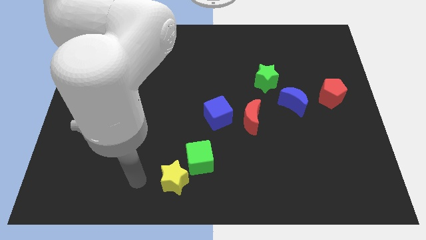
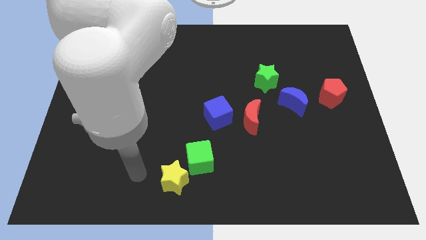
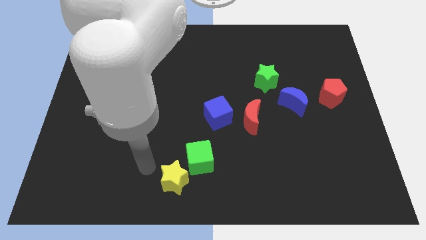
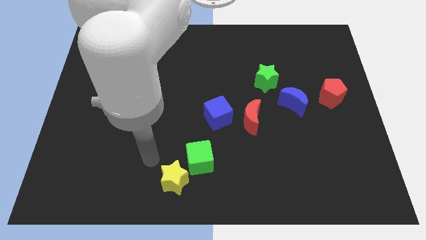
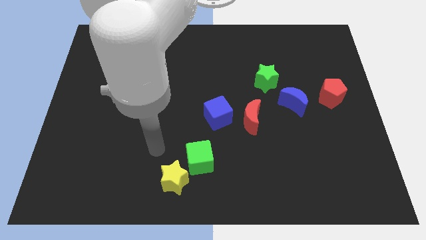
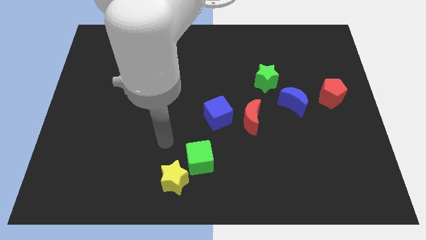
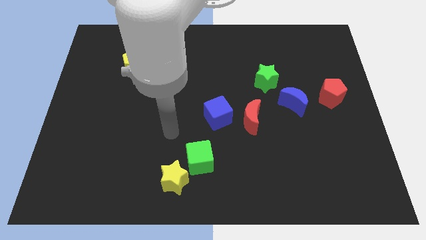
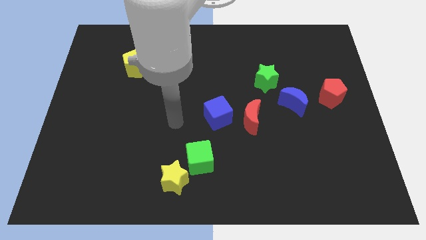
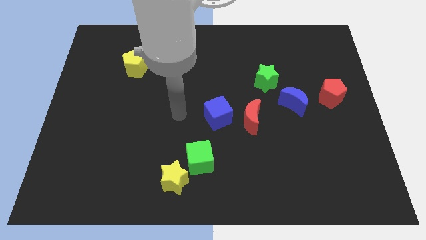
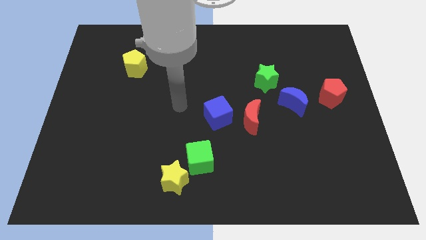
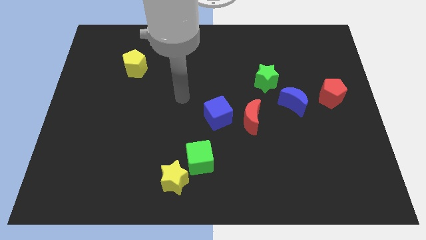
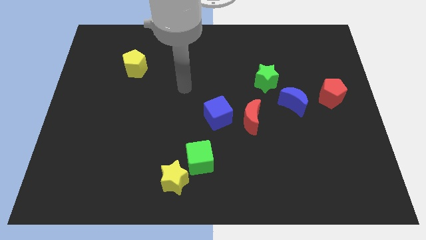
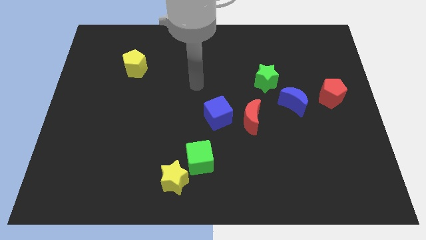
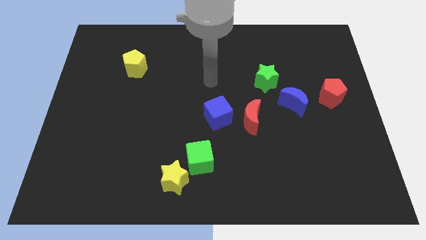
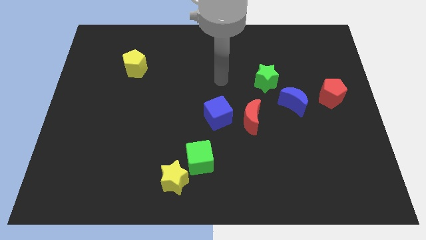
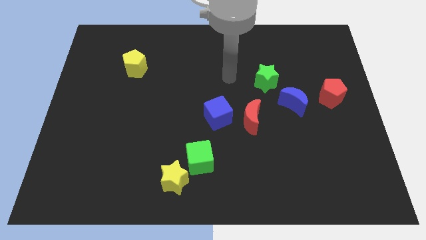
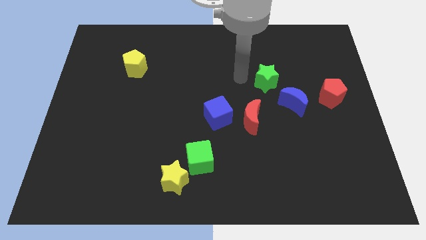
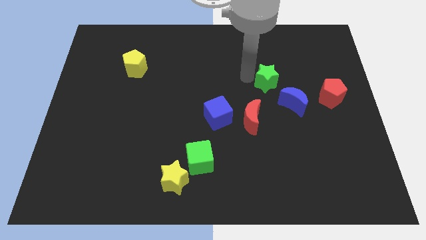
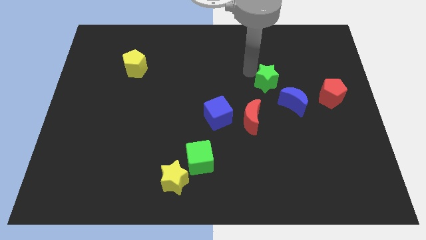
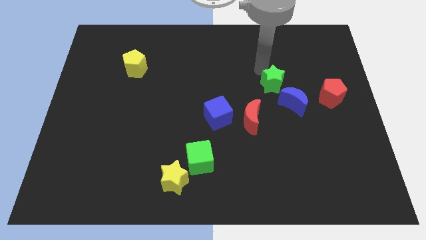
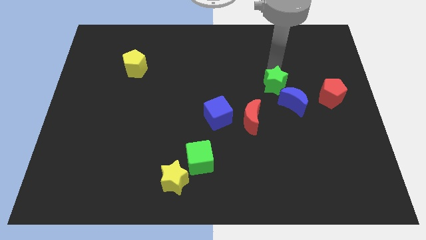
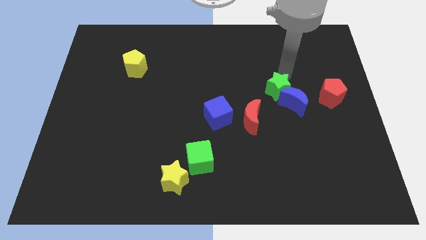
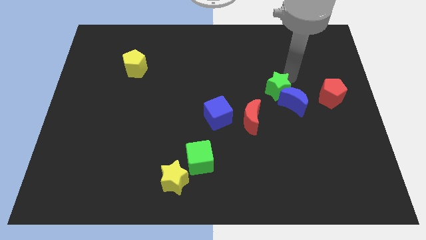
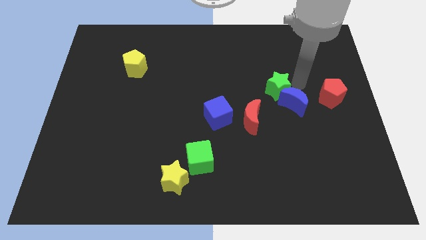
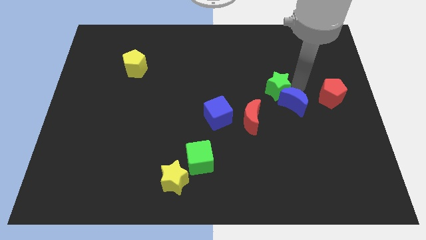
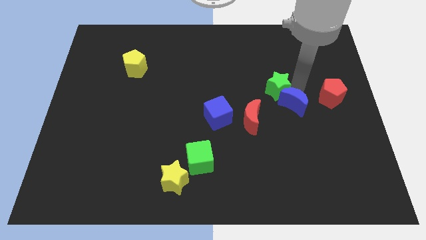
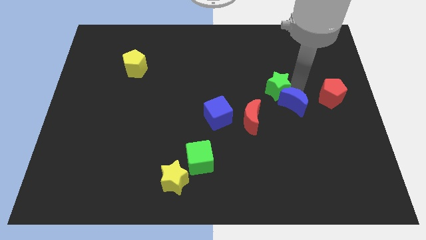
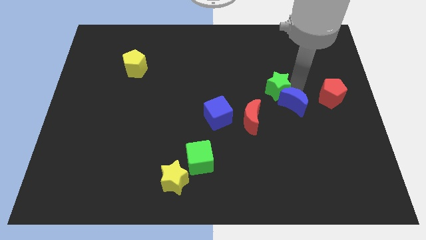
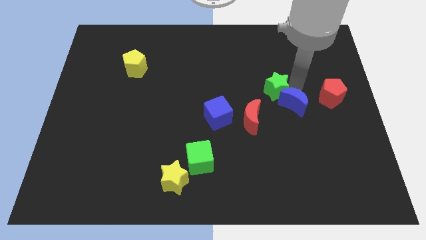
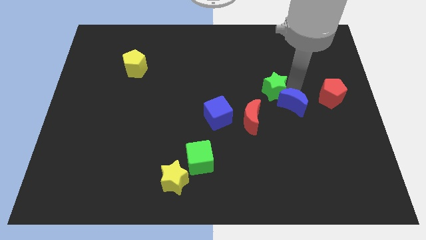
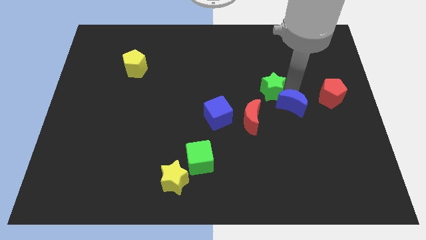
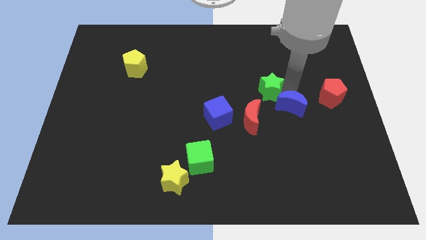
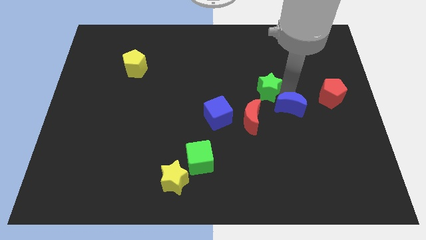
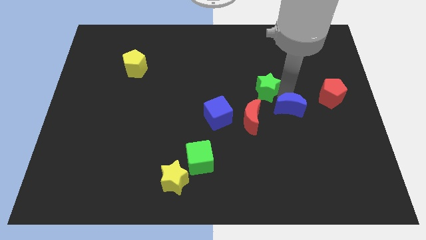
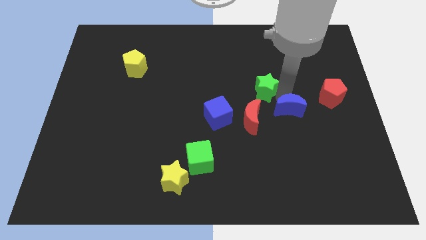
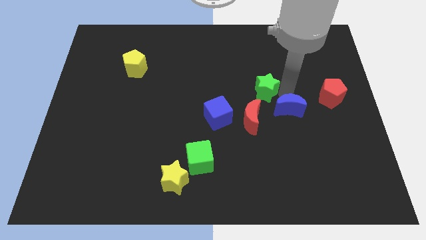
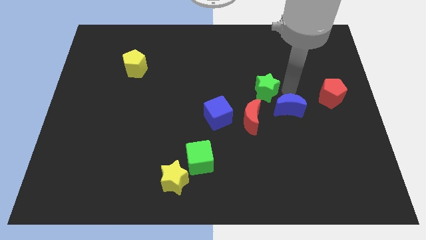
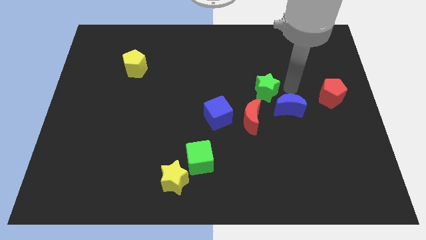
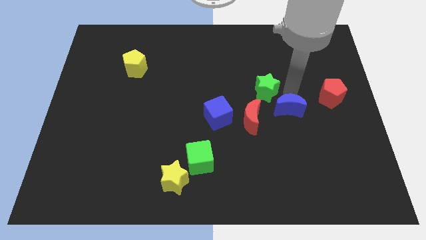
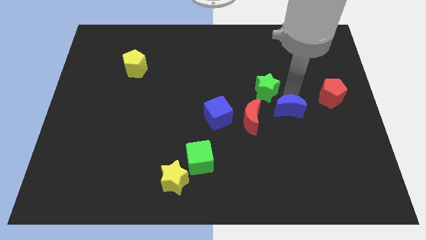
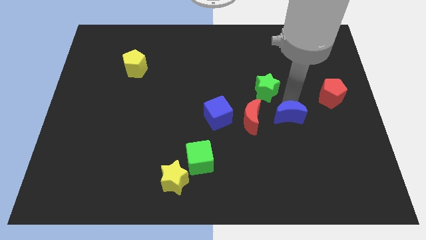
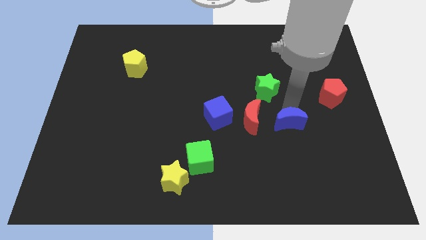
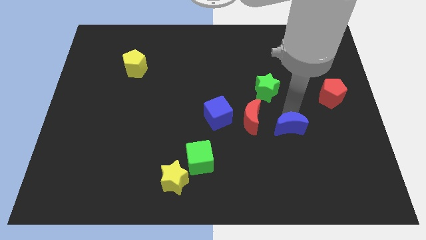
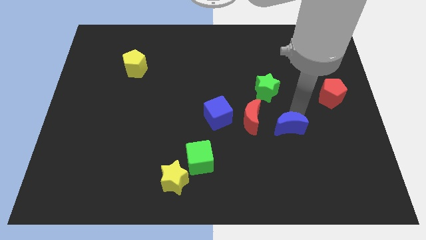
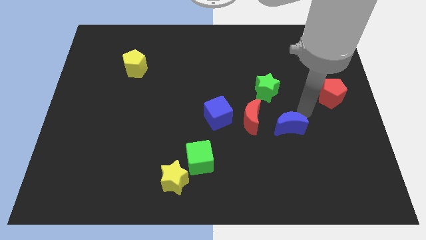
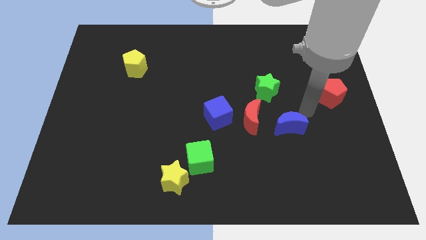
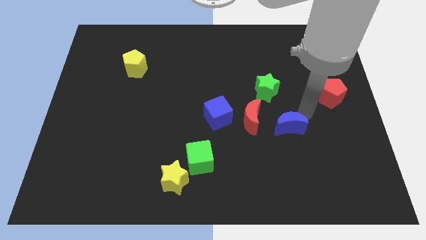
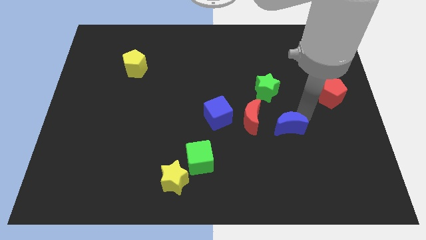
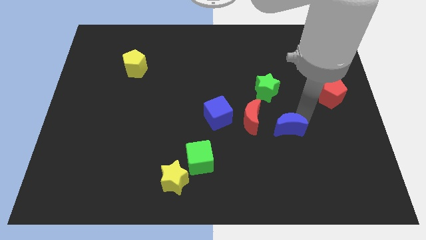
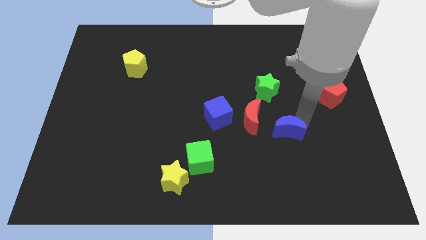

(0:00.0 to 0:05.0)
push the blue moon slightly down and to the left

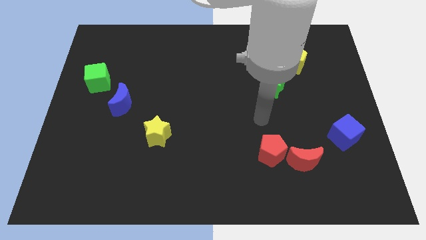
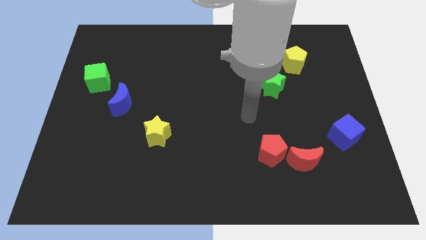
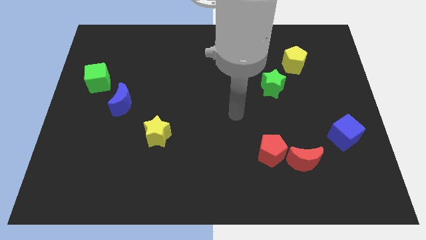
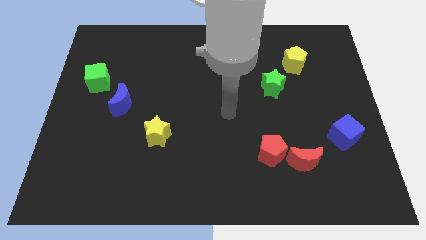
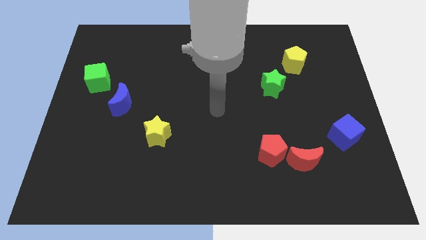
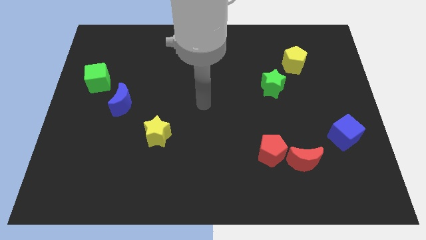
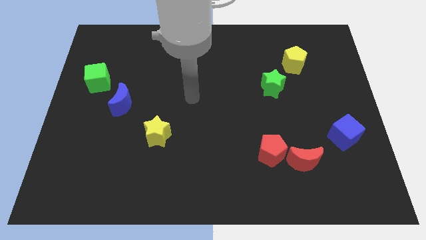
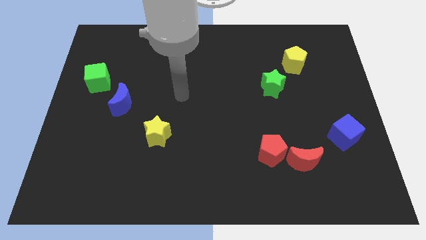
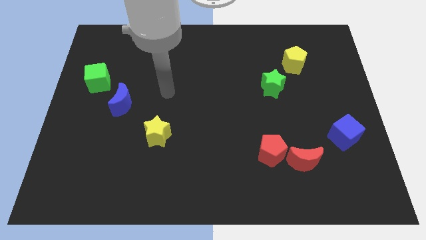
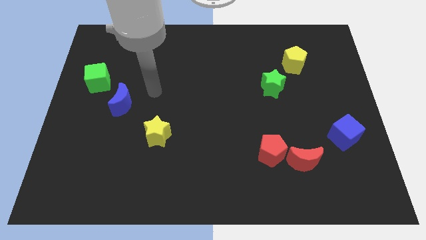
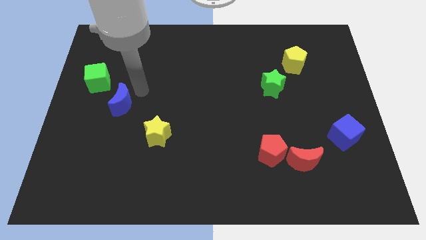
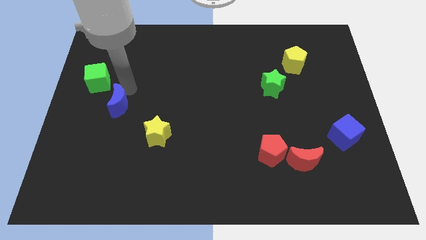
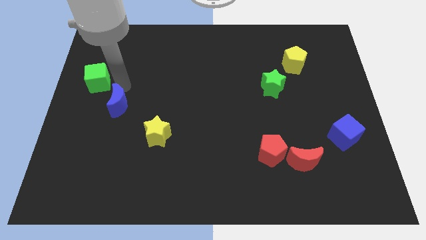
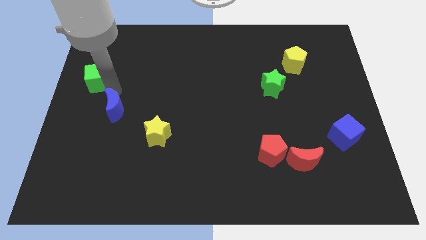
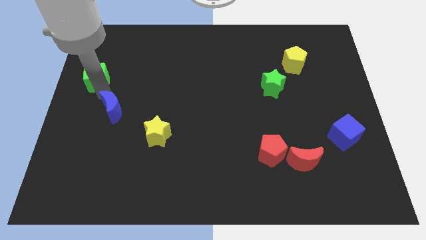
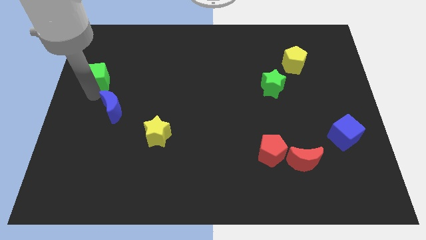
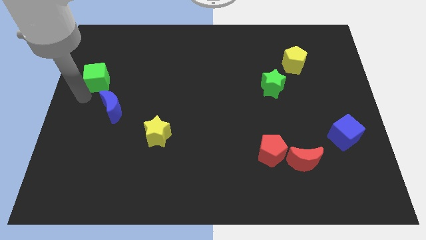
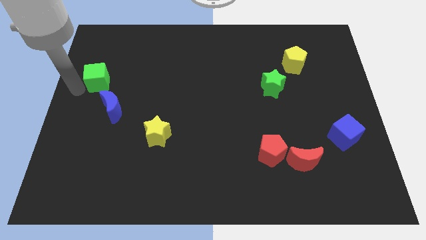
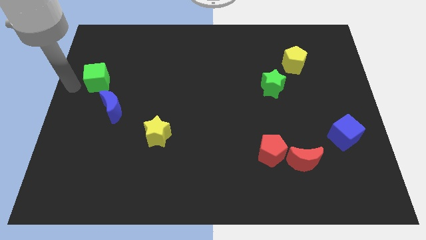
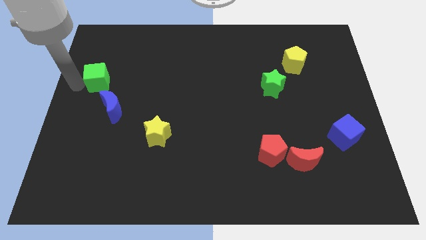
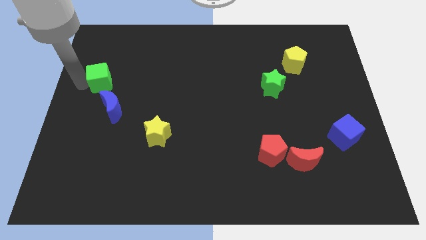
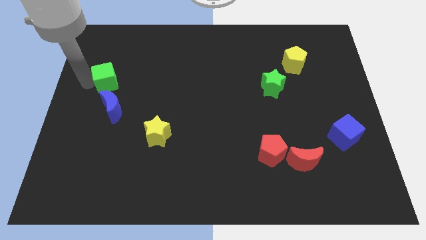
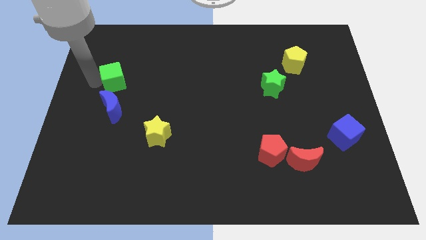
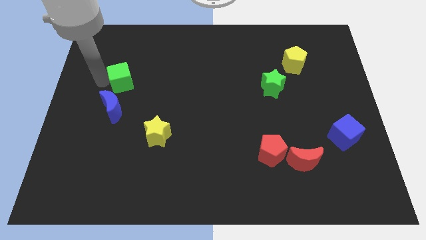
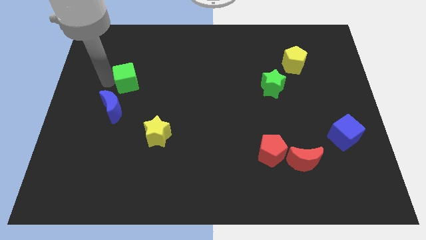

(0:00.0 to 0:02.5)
push the green cube to the right a little

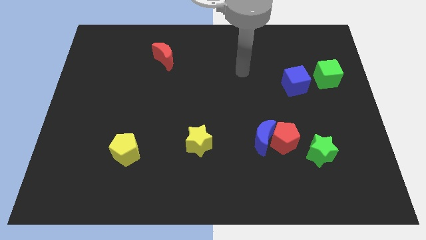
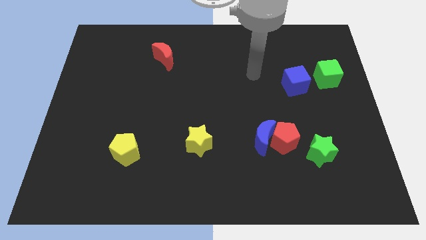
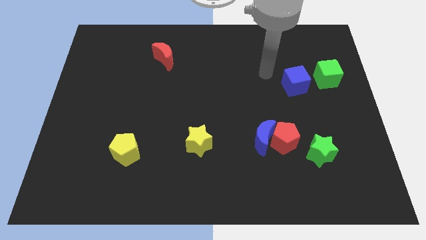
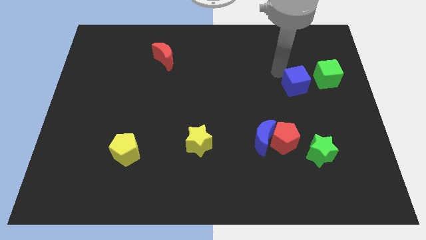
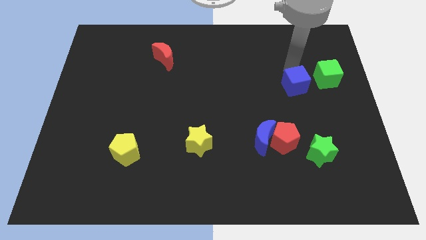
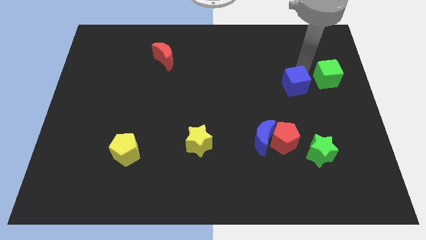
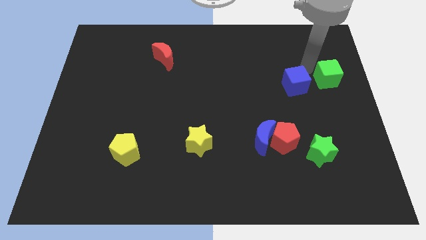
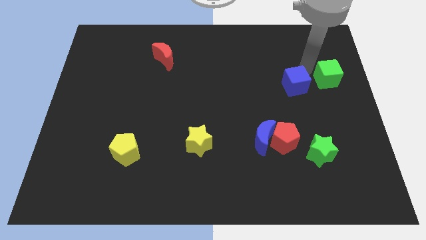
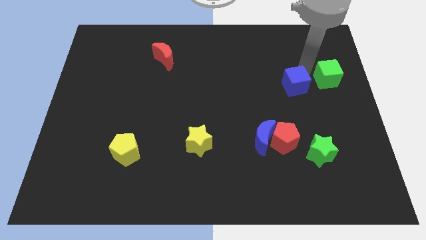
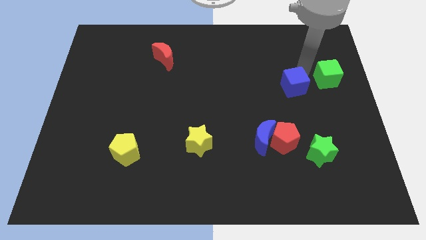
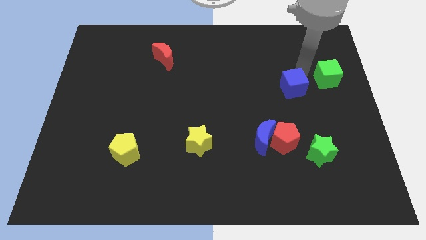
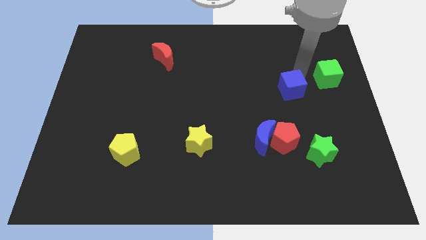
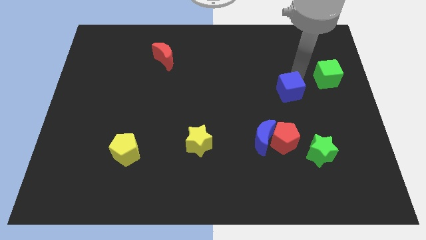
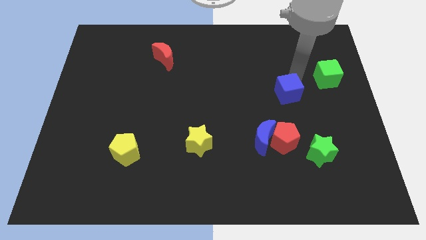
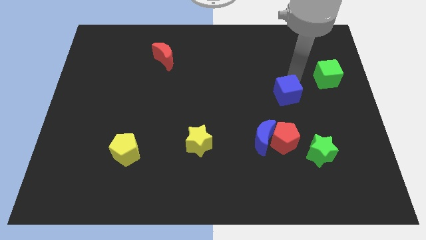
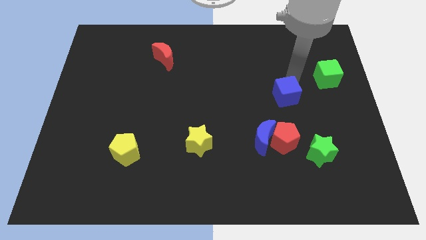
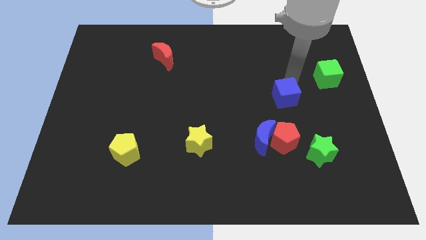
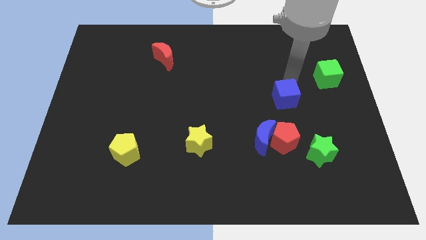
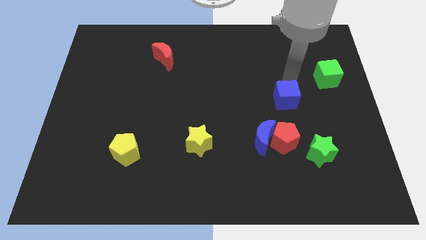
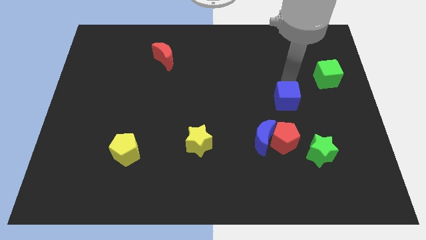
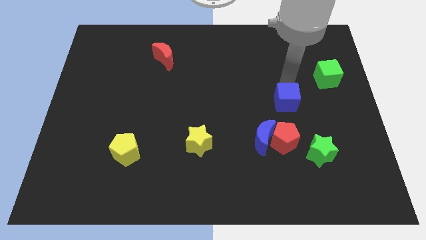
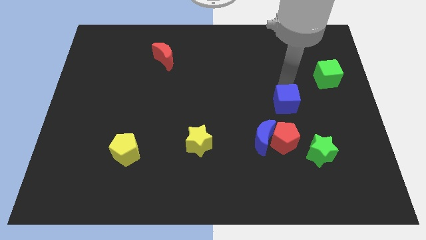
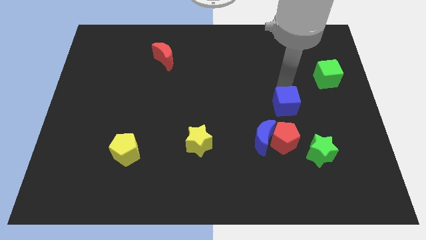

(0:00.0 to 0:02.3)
slightly move the blue cube diagonally downwards and to the left
